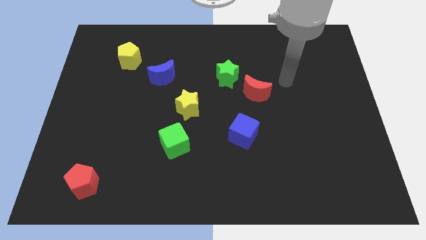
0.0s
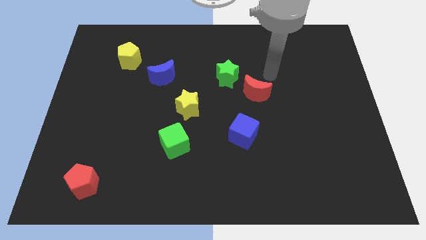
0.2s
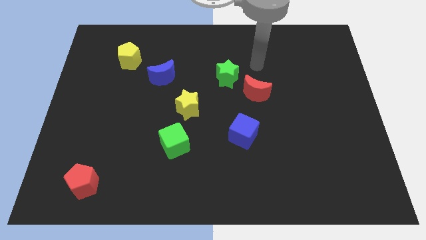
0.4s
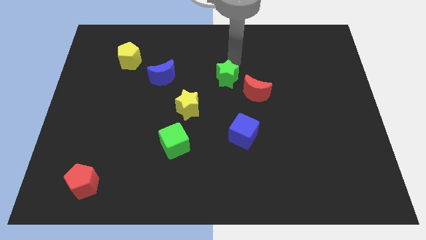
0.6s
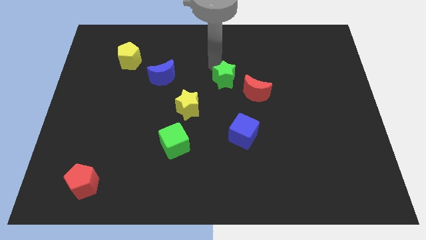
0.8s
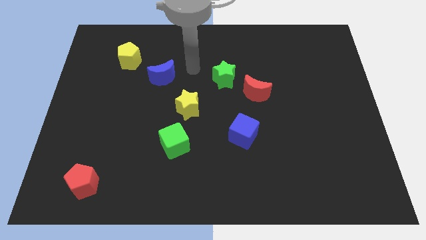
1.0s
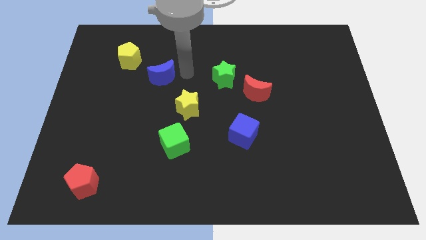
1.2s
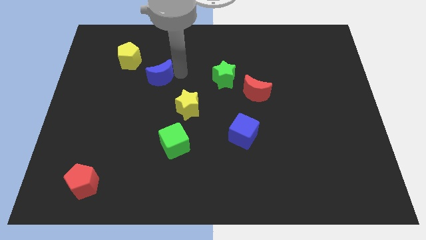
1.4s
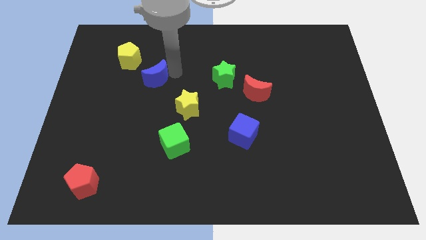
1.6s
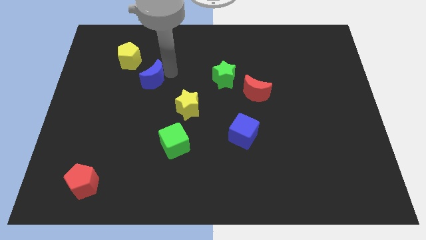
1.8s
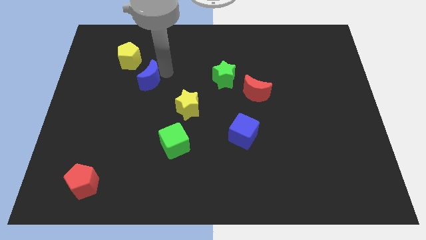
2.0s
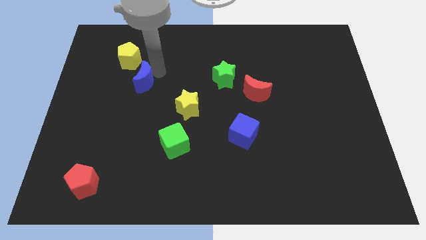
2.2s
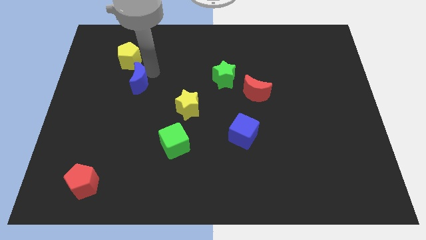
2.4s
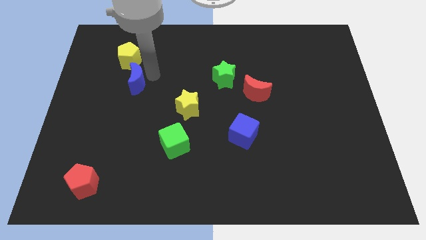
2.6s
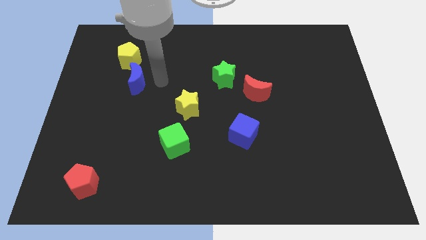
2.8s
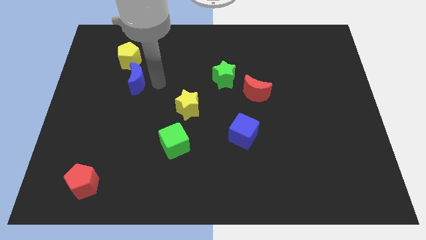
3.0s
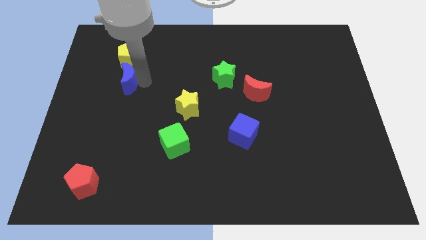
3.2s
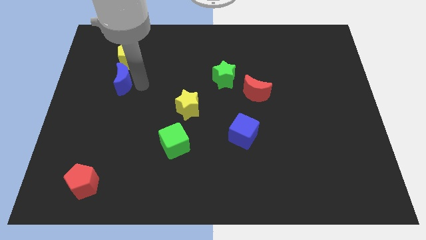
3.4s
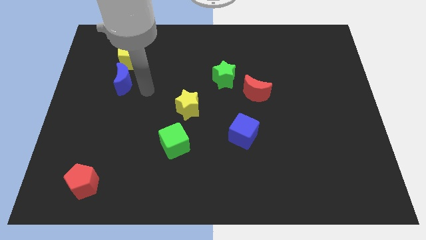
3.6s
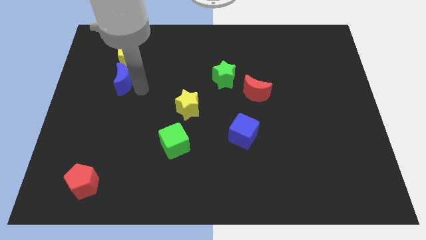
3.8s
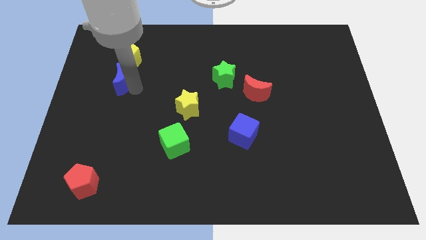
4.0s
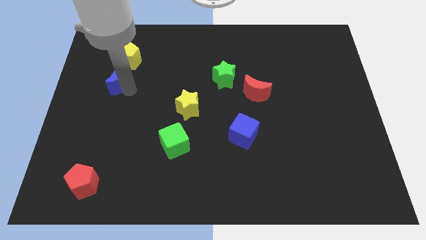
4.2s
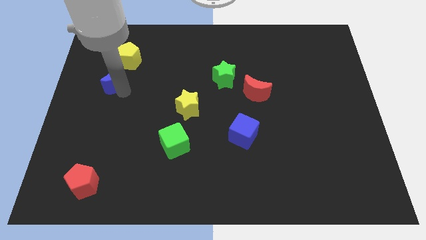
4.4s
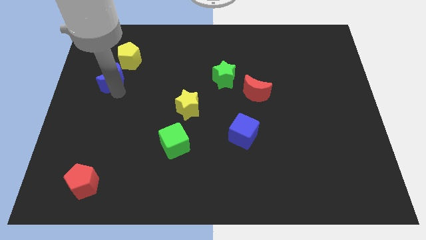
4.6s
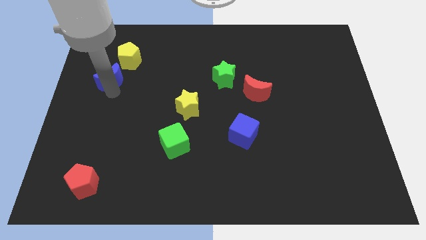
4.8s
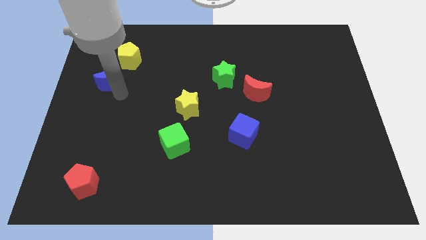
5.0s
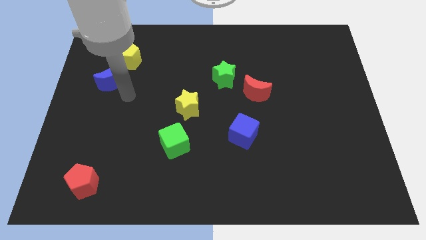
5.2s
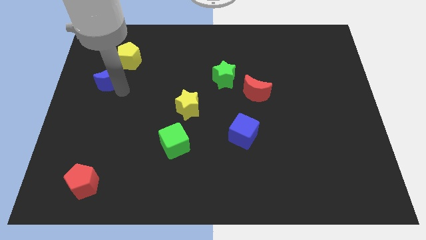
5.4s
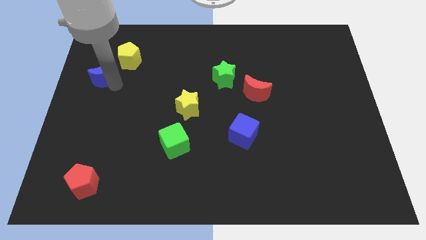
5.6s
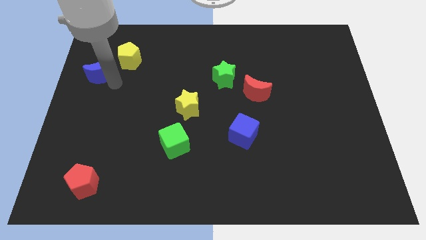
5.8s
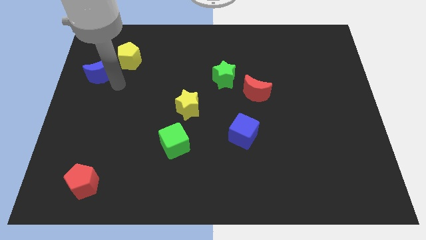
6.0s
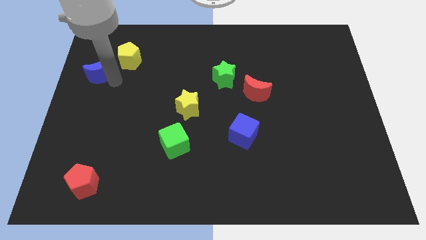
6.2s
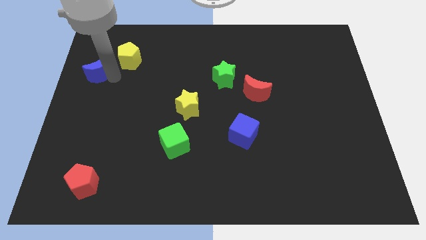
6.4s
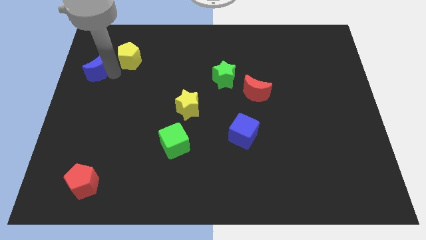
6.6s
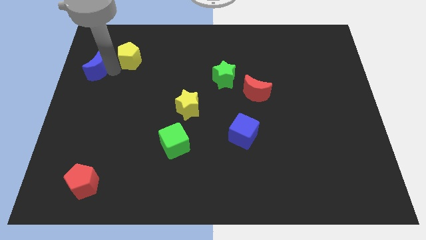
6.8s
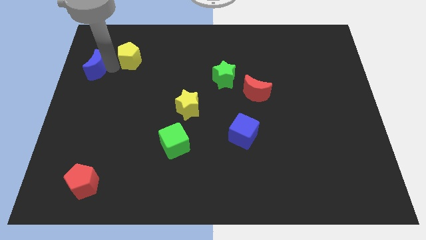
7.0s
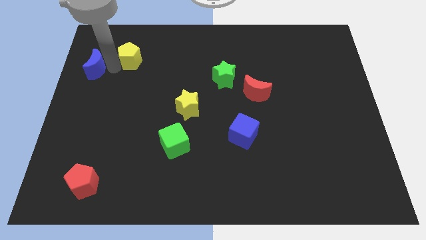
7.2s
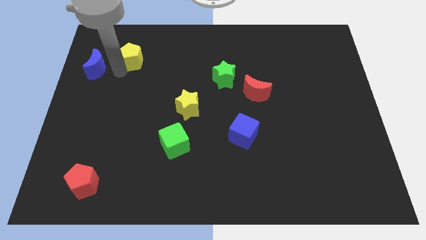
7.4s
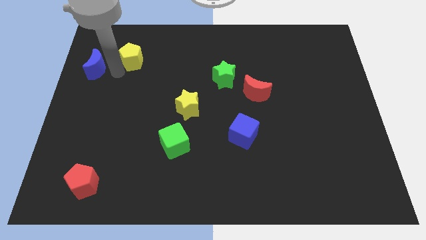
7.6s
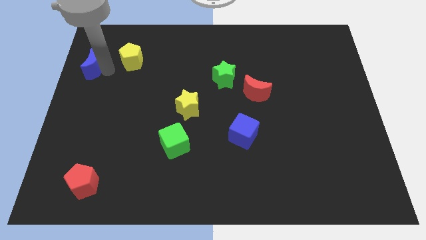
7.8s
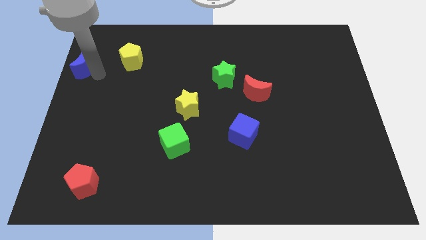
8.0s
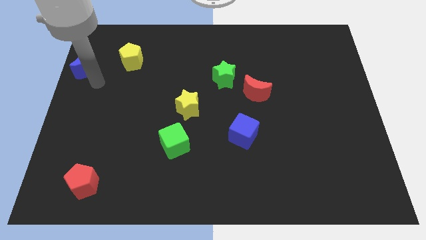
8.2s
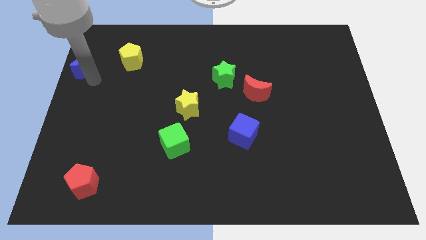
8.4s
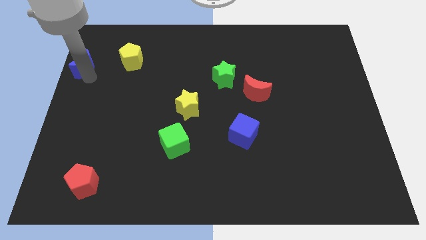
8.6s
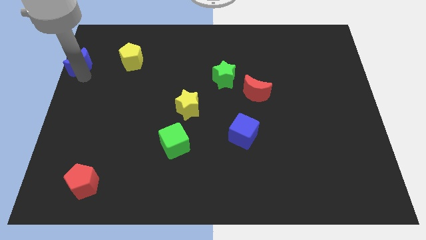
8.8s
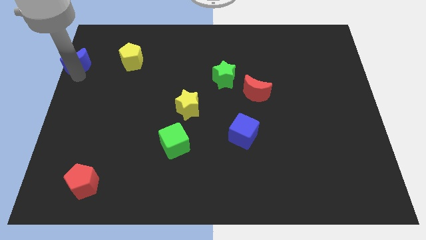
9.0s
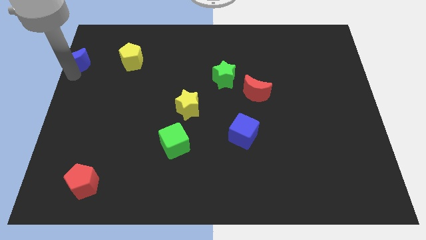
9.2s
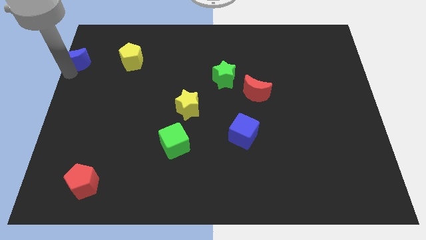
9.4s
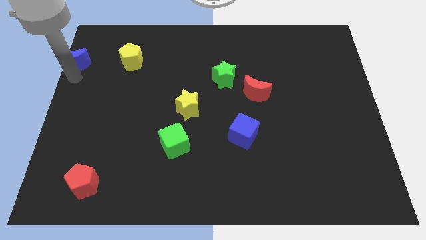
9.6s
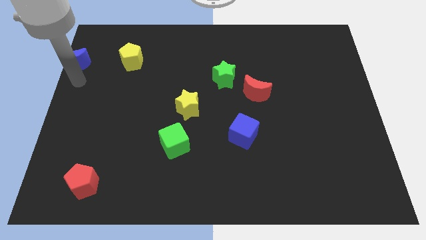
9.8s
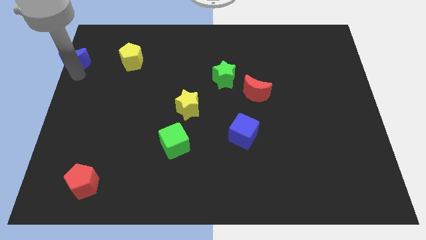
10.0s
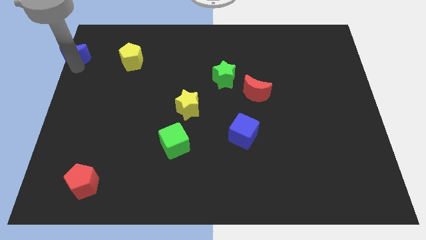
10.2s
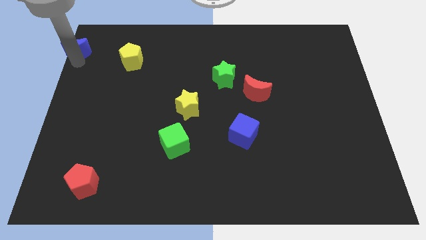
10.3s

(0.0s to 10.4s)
move the blue moon to the top left corner

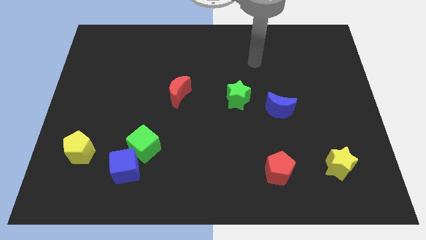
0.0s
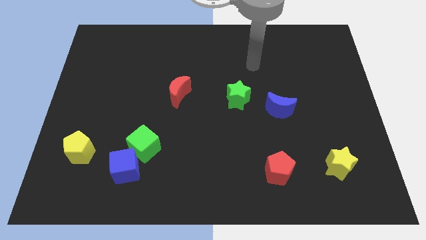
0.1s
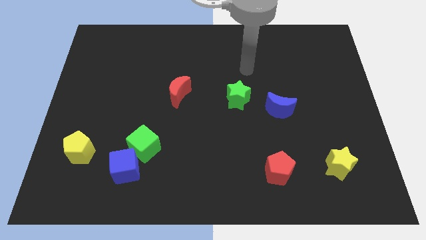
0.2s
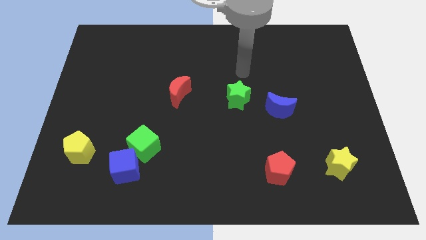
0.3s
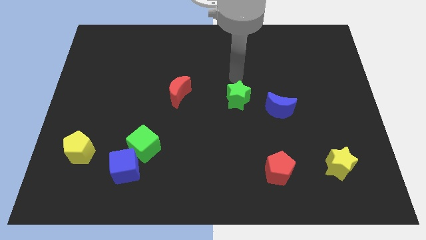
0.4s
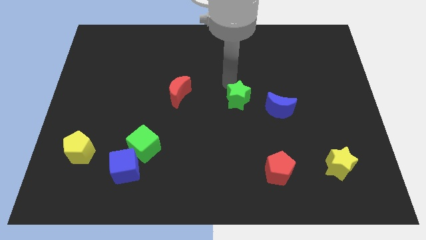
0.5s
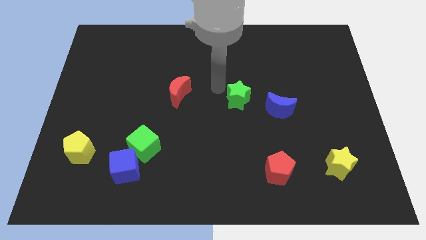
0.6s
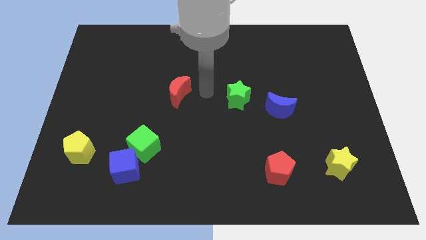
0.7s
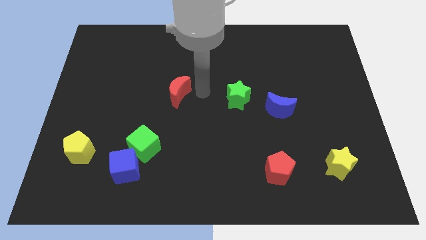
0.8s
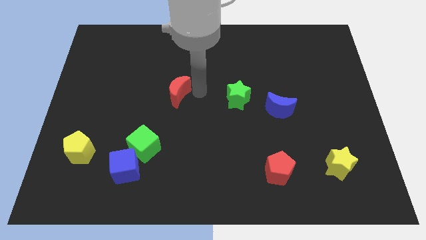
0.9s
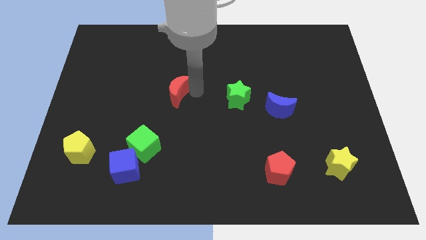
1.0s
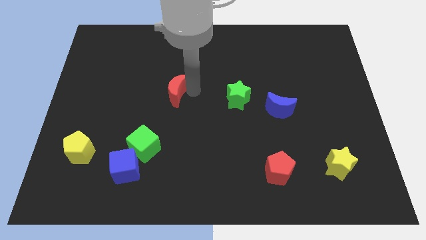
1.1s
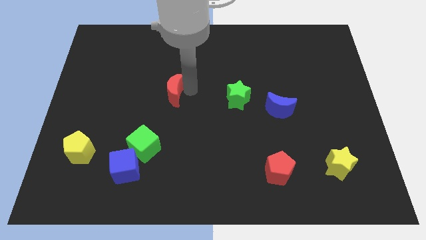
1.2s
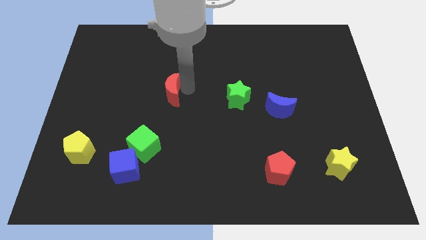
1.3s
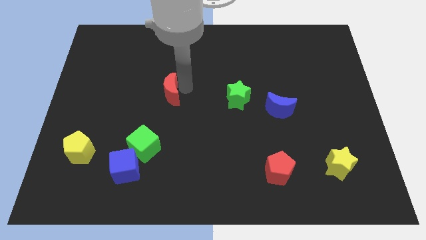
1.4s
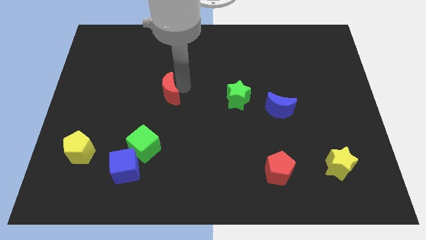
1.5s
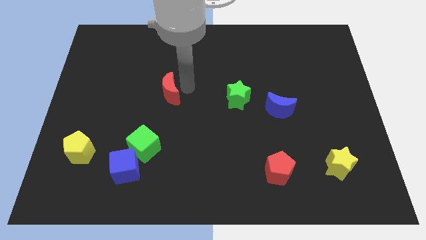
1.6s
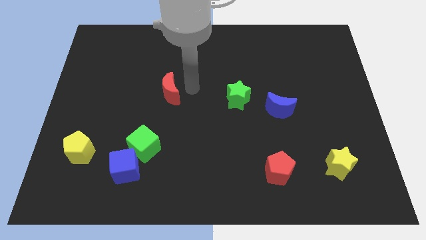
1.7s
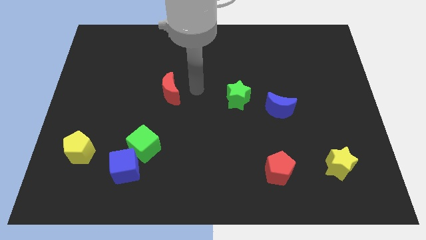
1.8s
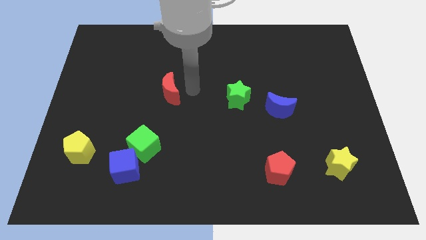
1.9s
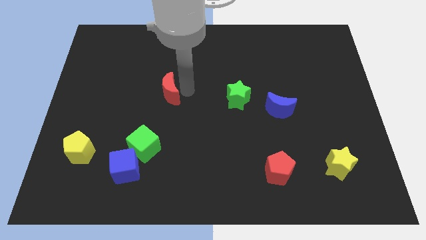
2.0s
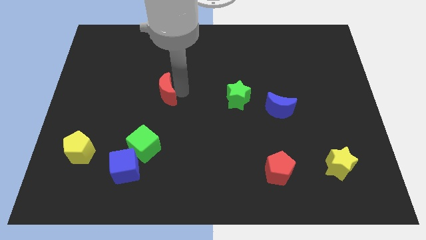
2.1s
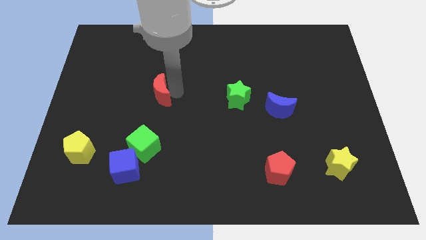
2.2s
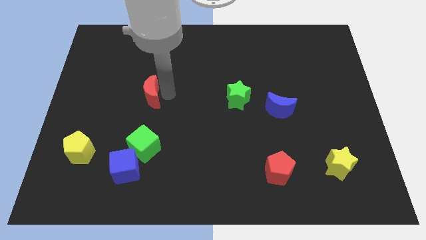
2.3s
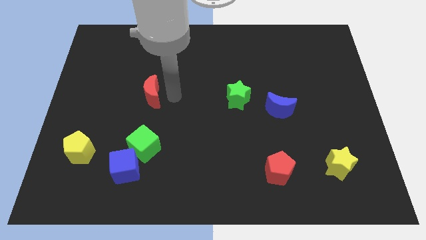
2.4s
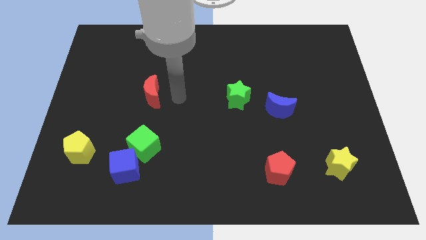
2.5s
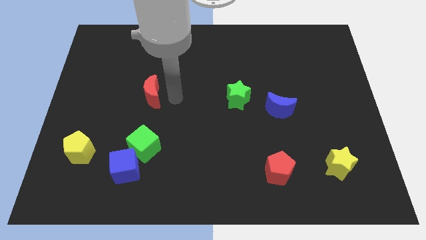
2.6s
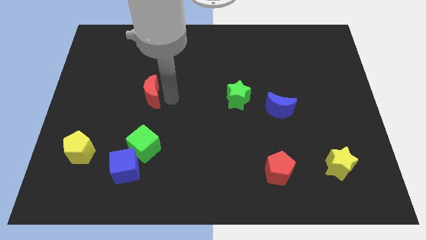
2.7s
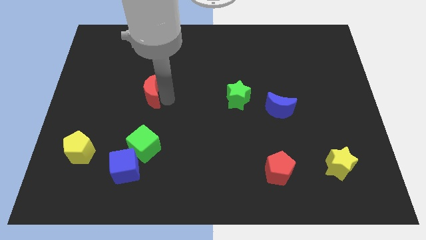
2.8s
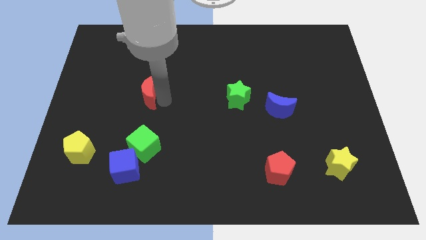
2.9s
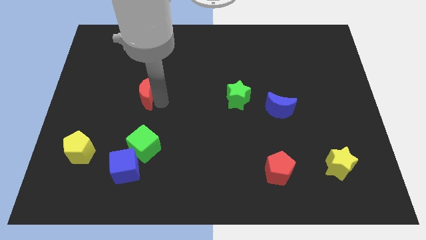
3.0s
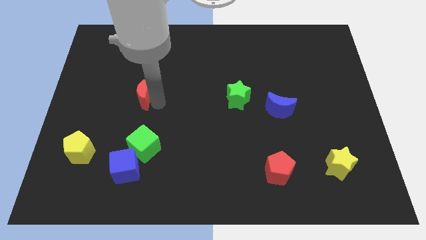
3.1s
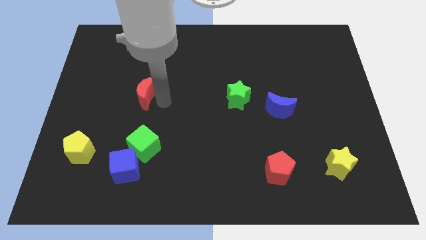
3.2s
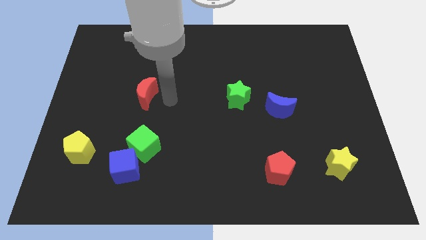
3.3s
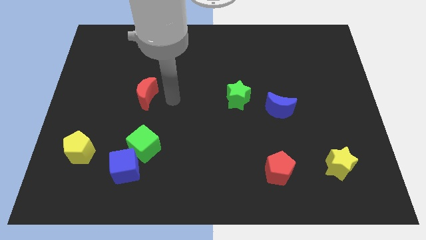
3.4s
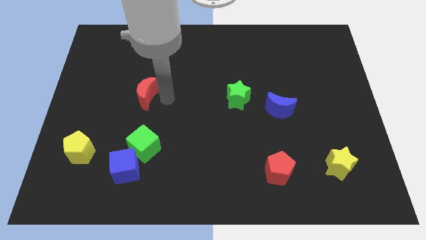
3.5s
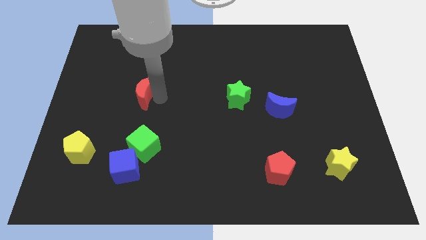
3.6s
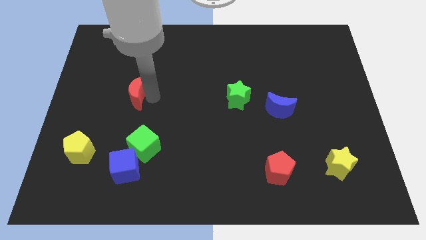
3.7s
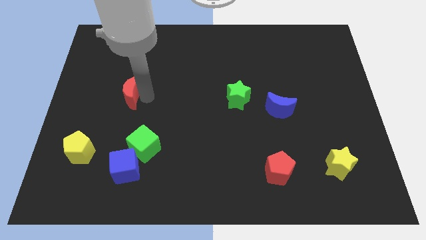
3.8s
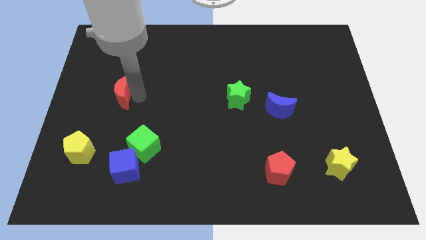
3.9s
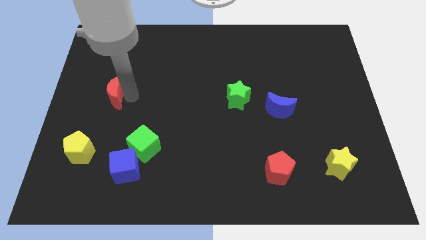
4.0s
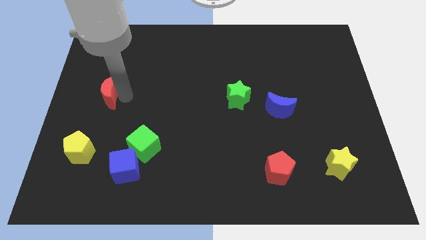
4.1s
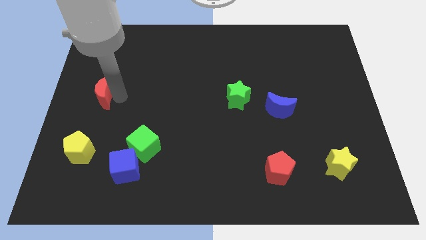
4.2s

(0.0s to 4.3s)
put the red moon to the left side
